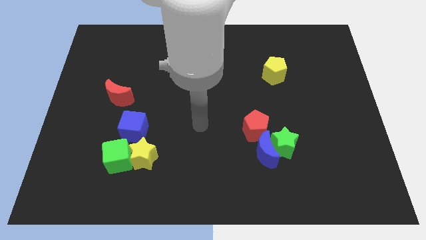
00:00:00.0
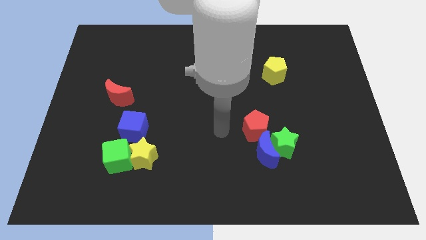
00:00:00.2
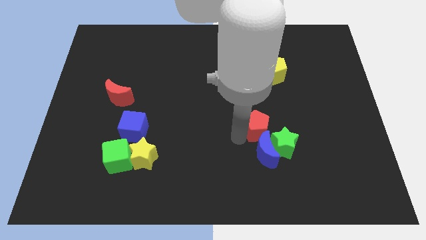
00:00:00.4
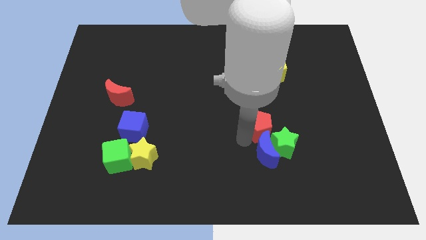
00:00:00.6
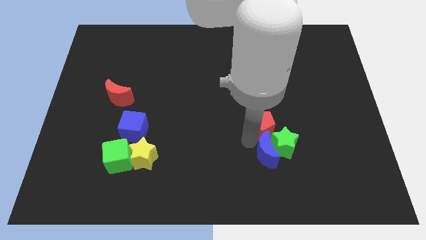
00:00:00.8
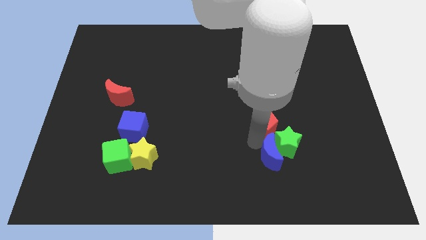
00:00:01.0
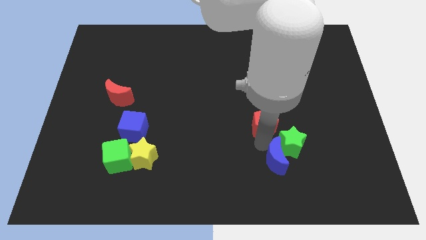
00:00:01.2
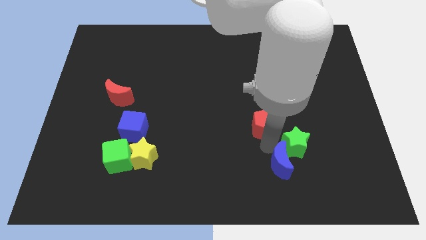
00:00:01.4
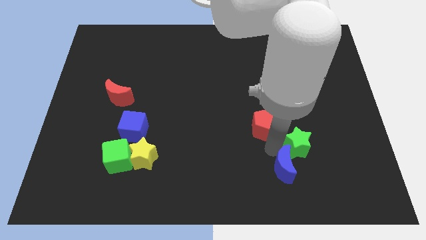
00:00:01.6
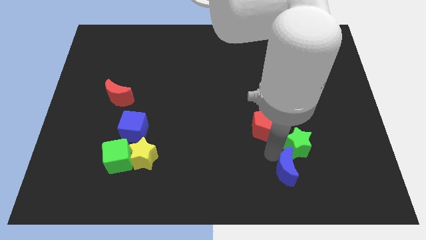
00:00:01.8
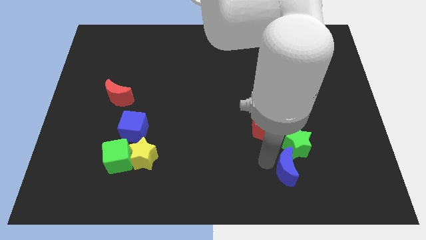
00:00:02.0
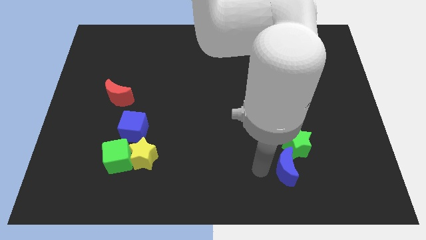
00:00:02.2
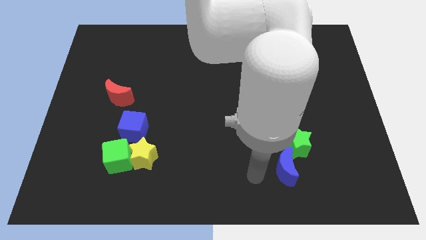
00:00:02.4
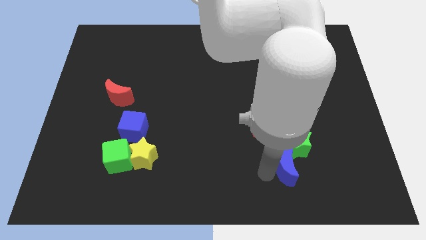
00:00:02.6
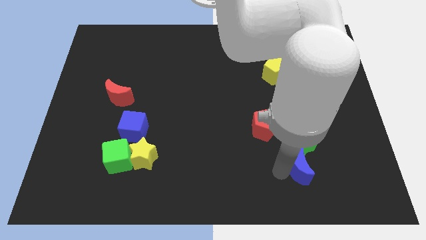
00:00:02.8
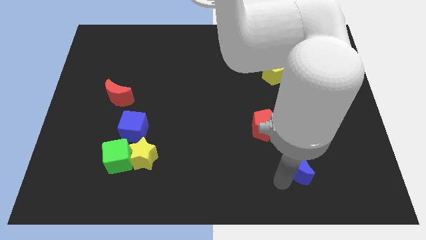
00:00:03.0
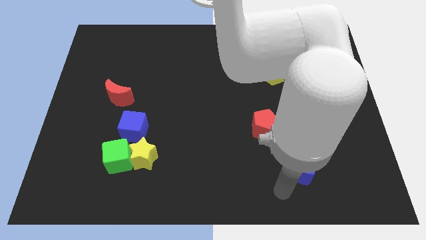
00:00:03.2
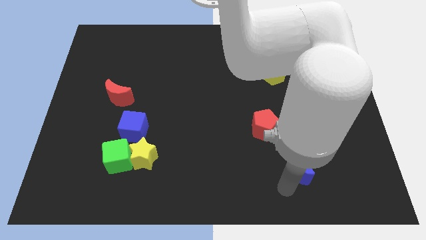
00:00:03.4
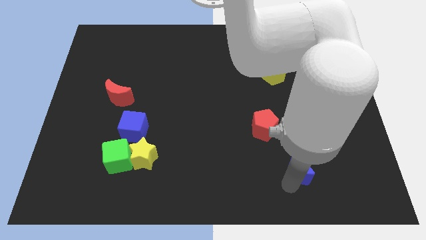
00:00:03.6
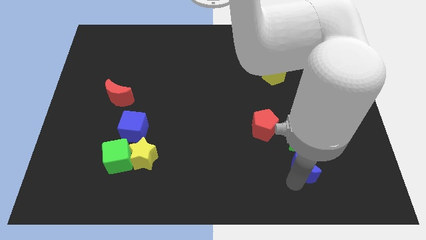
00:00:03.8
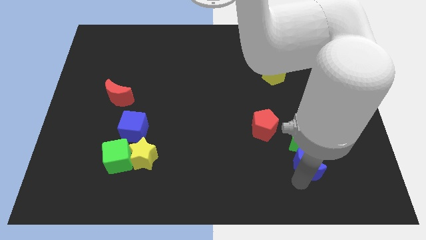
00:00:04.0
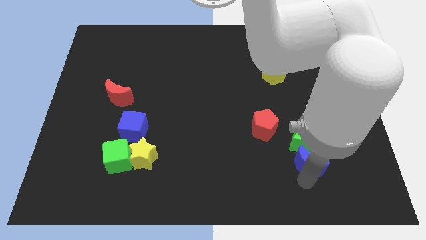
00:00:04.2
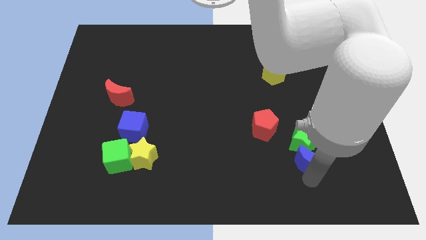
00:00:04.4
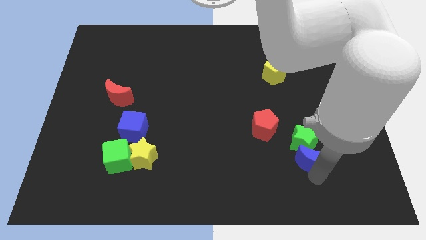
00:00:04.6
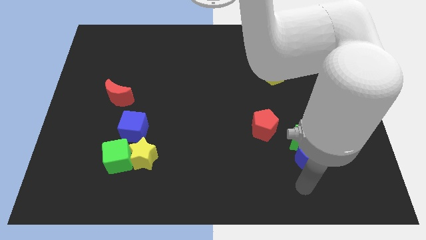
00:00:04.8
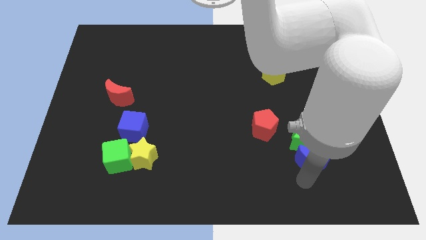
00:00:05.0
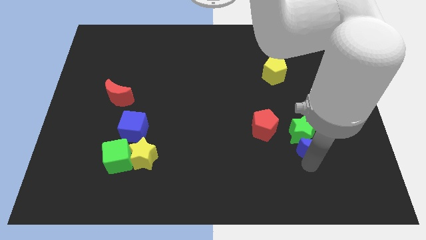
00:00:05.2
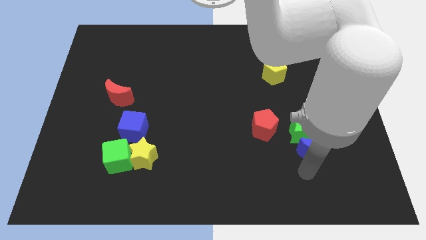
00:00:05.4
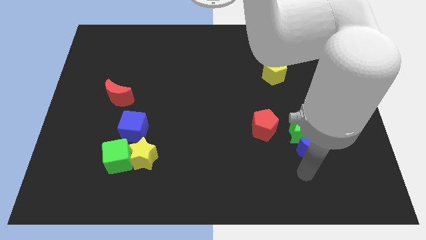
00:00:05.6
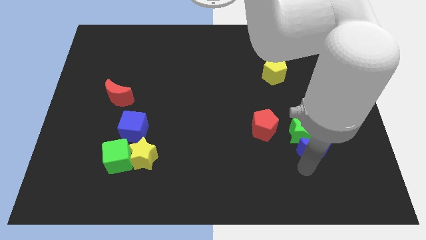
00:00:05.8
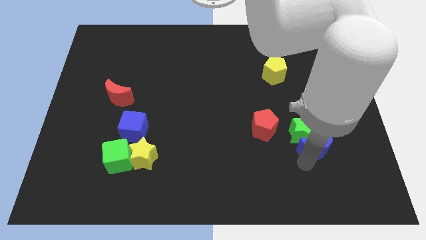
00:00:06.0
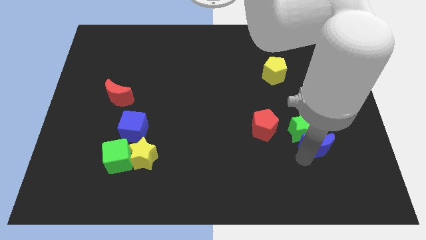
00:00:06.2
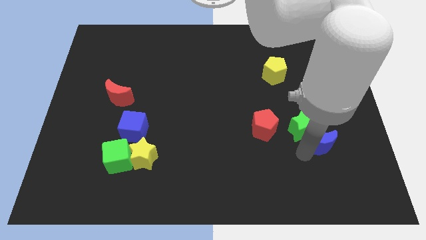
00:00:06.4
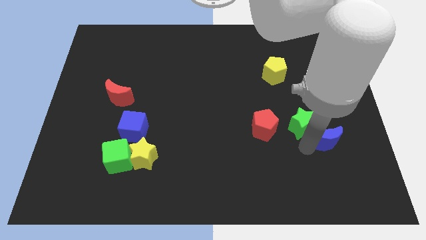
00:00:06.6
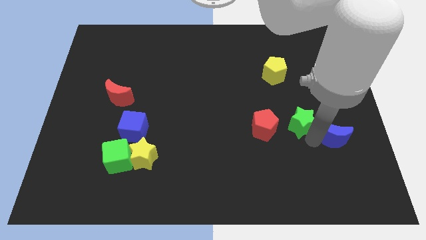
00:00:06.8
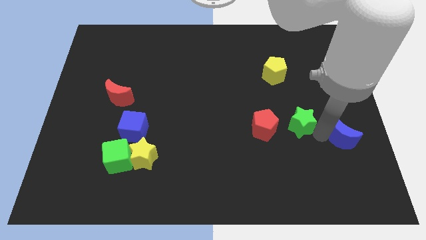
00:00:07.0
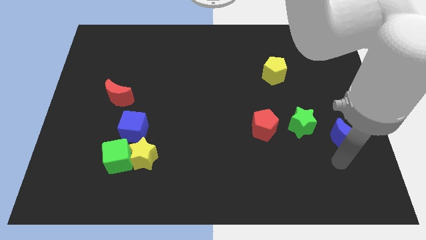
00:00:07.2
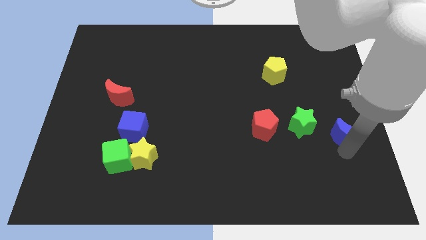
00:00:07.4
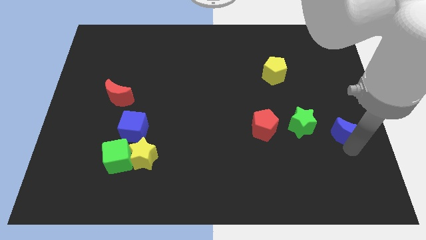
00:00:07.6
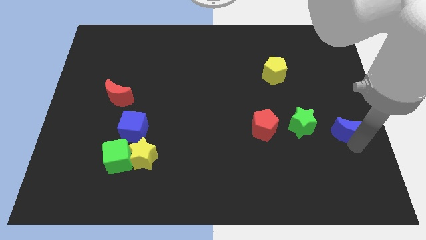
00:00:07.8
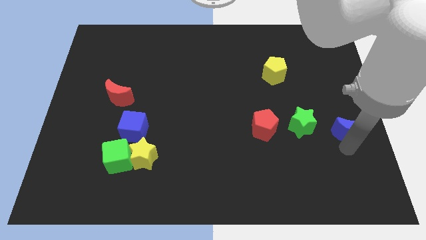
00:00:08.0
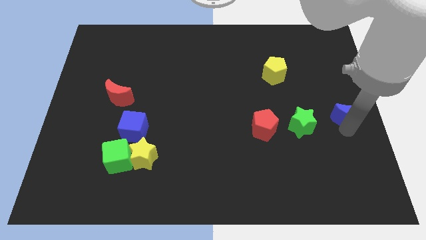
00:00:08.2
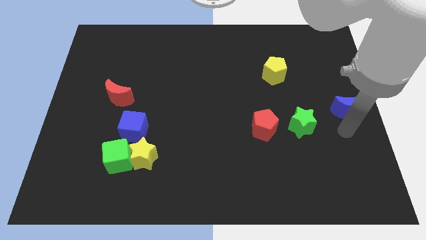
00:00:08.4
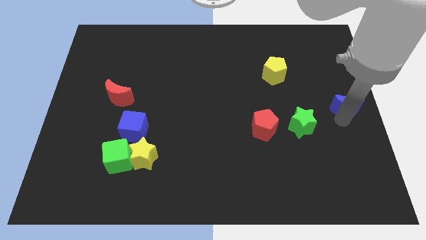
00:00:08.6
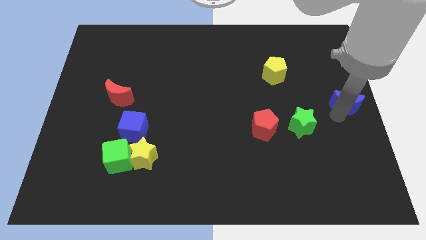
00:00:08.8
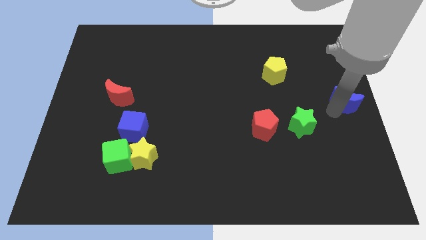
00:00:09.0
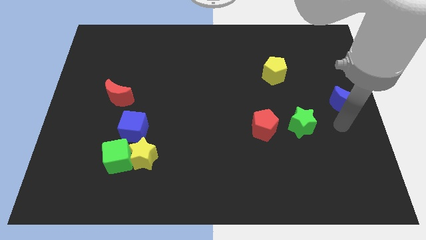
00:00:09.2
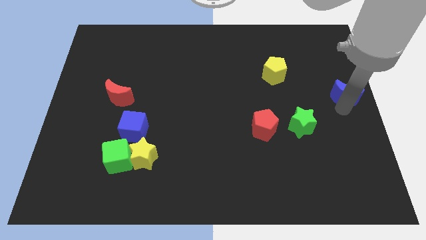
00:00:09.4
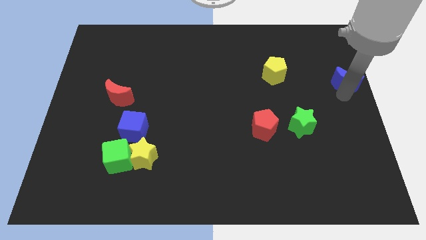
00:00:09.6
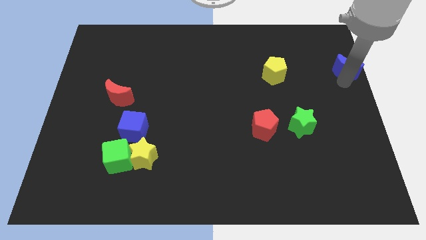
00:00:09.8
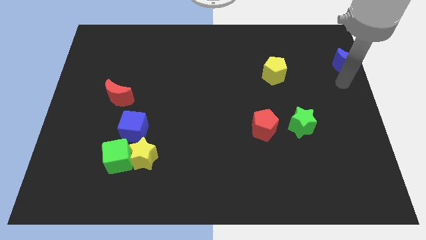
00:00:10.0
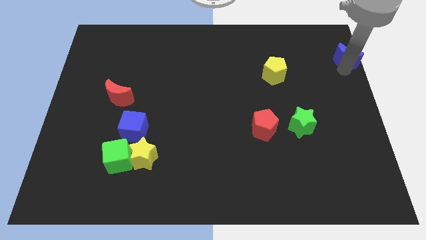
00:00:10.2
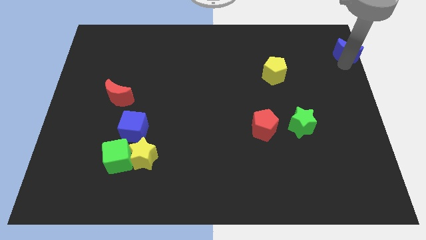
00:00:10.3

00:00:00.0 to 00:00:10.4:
slide the blue moon to the top right of the board

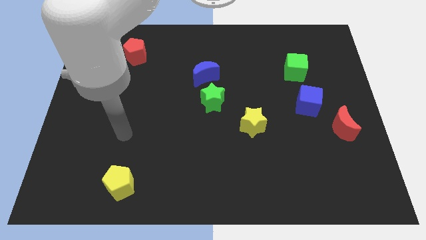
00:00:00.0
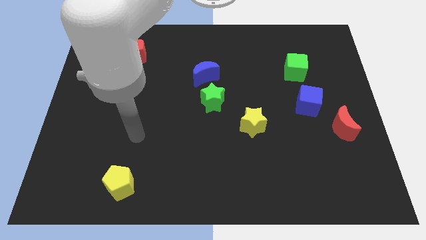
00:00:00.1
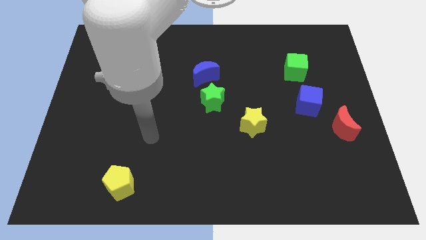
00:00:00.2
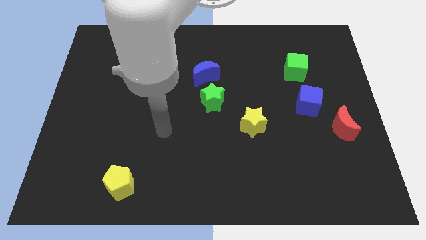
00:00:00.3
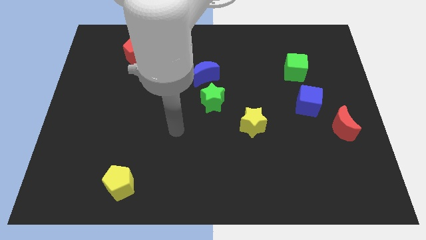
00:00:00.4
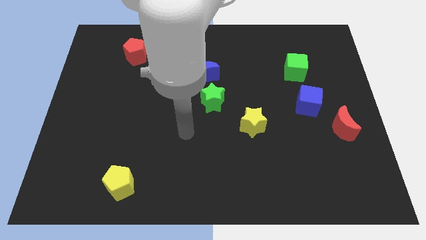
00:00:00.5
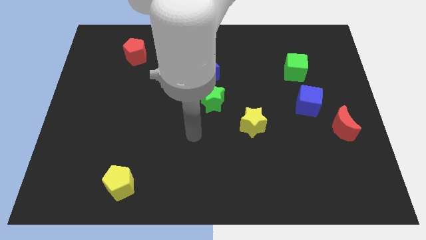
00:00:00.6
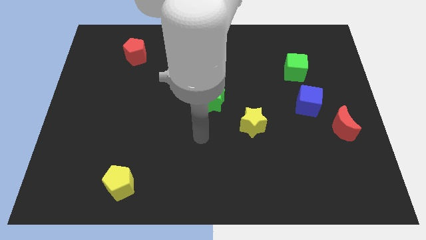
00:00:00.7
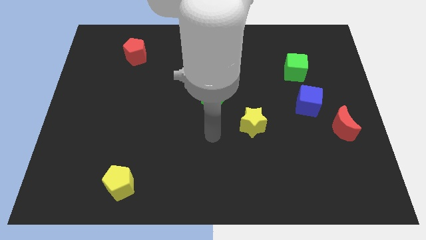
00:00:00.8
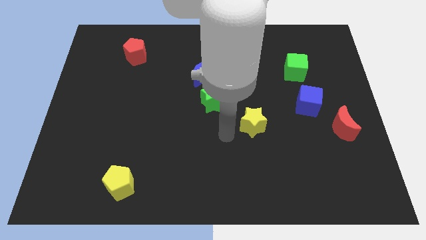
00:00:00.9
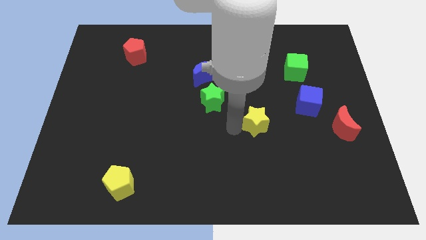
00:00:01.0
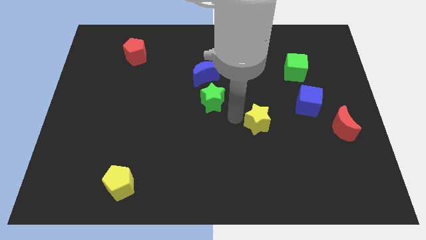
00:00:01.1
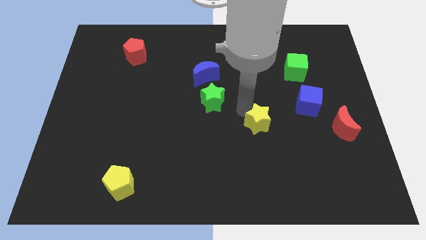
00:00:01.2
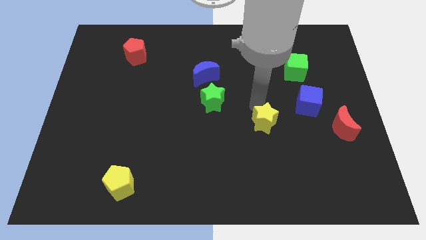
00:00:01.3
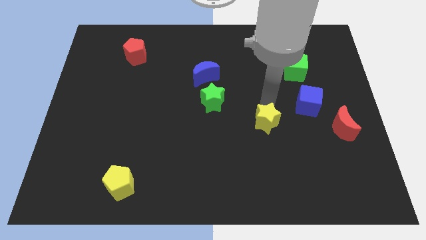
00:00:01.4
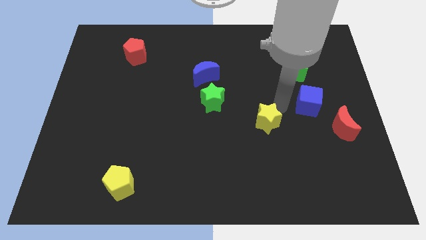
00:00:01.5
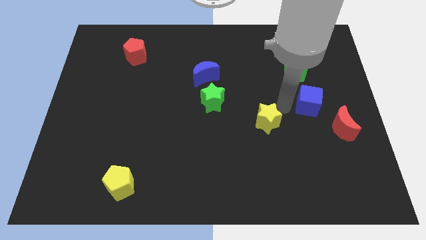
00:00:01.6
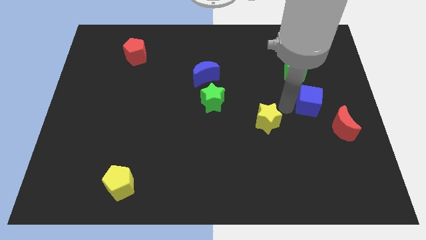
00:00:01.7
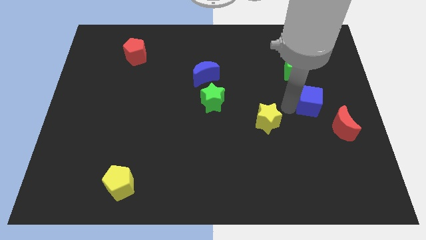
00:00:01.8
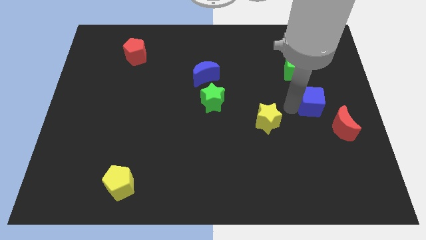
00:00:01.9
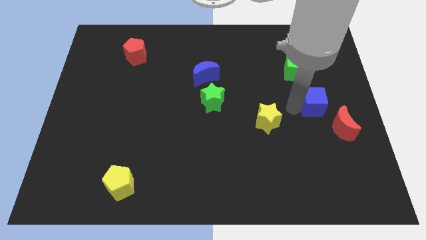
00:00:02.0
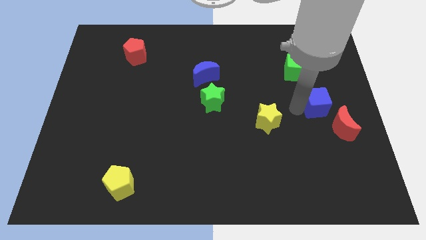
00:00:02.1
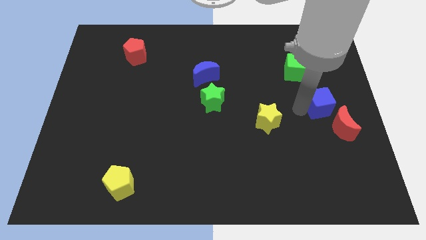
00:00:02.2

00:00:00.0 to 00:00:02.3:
push the blue cube to the center right
